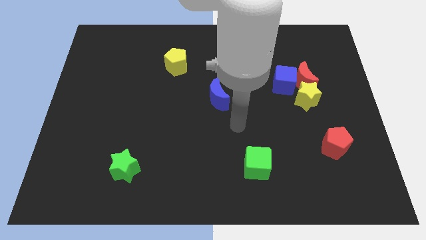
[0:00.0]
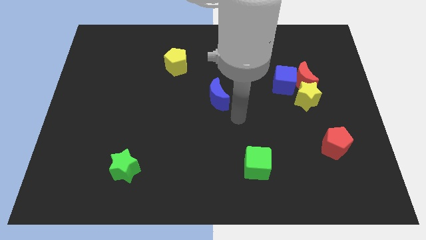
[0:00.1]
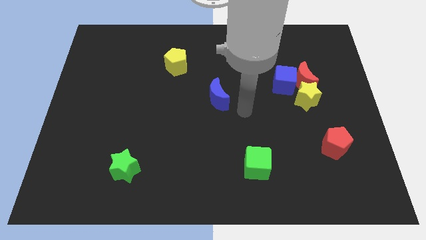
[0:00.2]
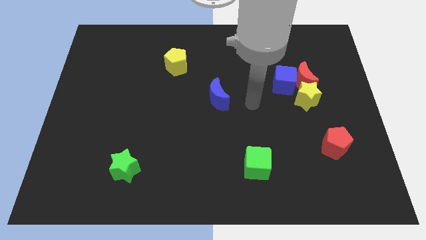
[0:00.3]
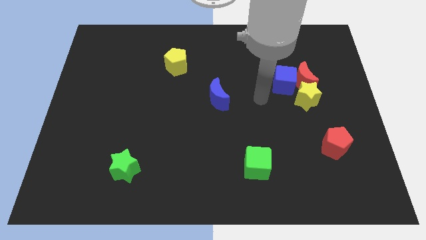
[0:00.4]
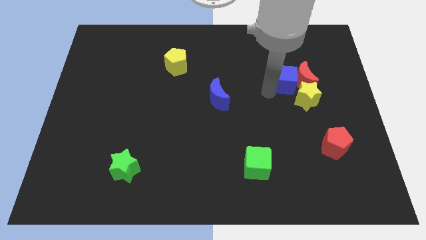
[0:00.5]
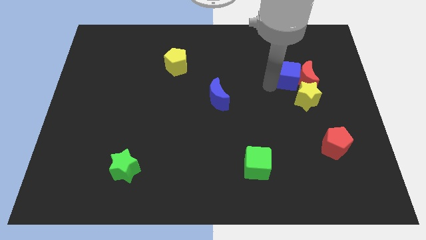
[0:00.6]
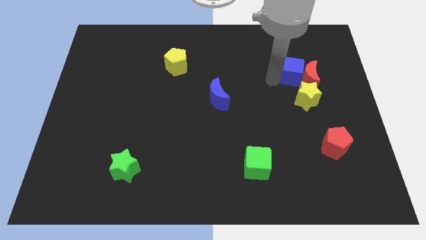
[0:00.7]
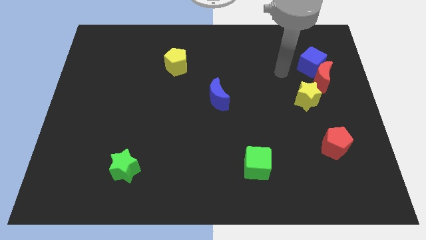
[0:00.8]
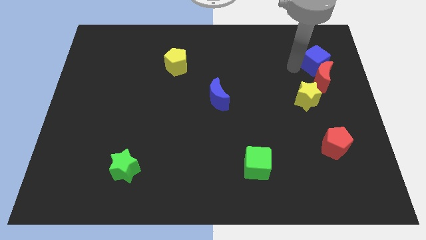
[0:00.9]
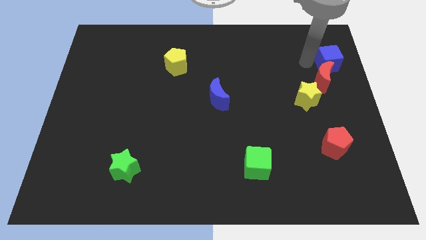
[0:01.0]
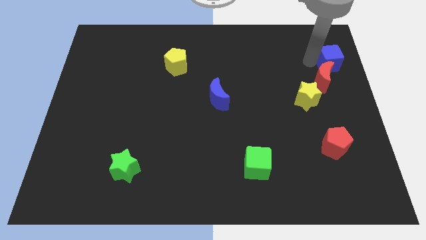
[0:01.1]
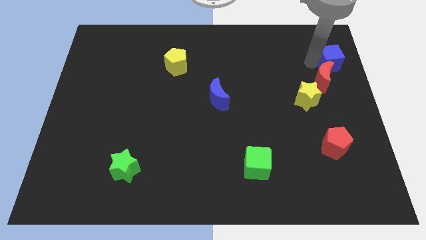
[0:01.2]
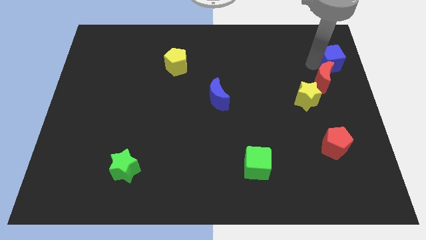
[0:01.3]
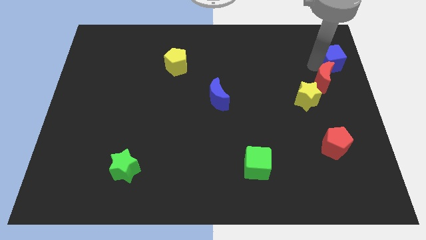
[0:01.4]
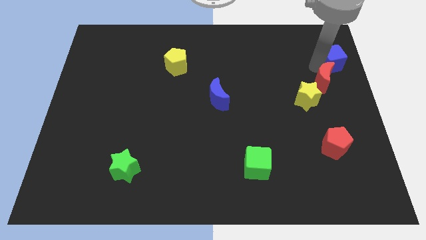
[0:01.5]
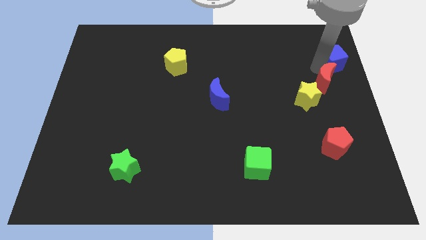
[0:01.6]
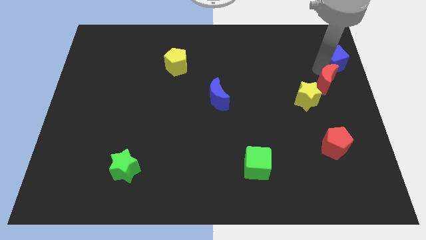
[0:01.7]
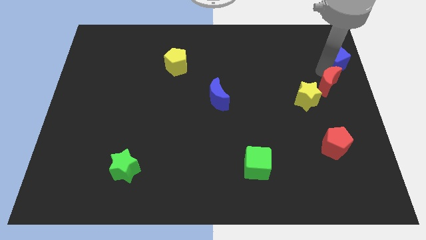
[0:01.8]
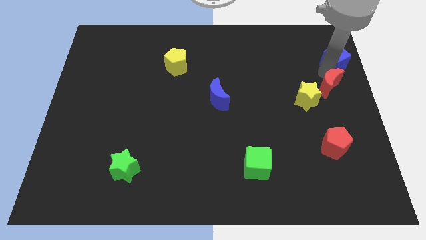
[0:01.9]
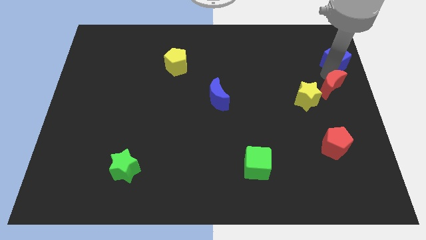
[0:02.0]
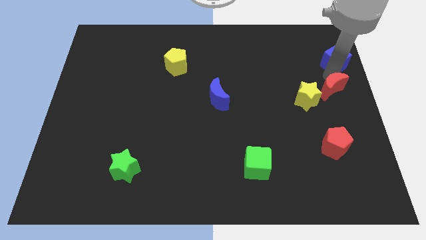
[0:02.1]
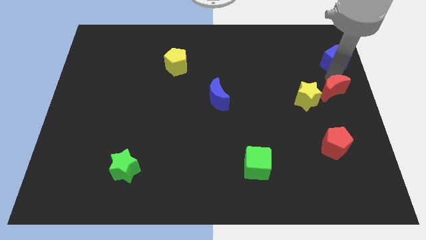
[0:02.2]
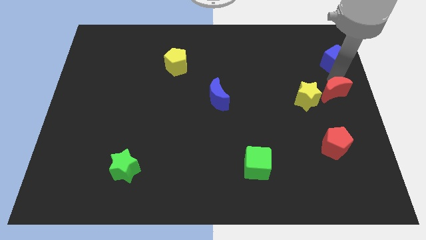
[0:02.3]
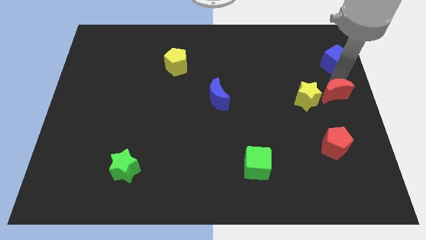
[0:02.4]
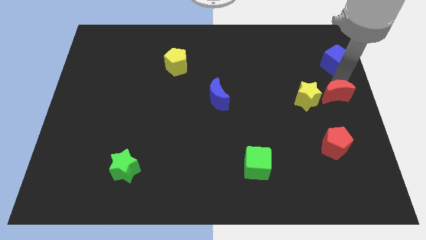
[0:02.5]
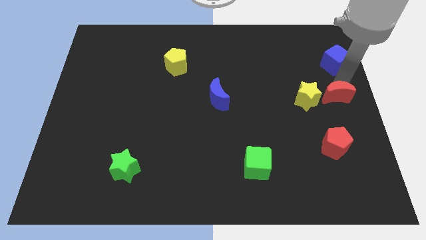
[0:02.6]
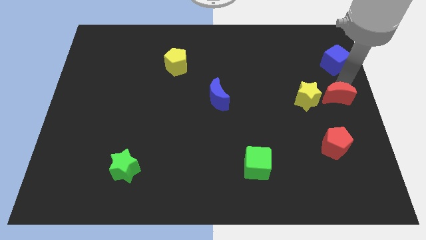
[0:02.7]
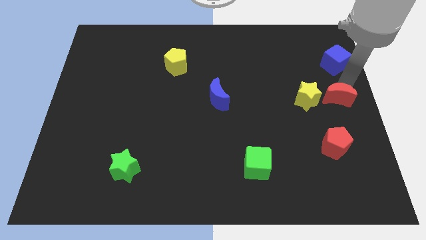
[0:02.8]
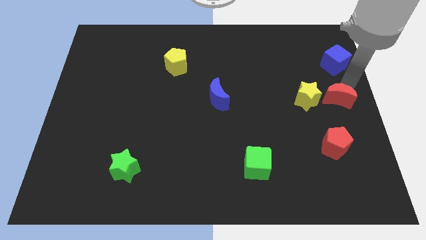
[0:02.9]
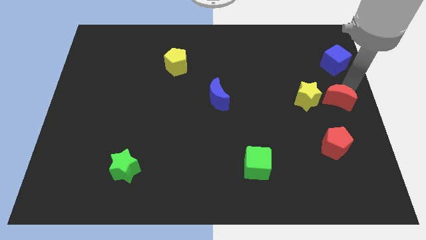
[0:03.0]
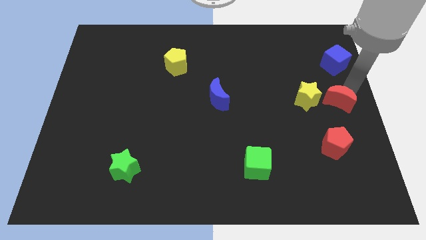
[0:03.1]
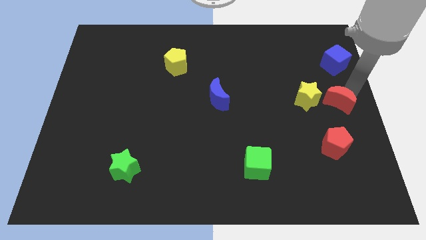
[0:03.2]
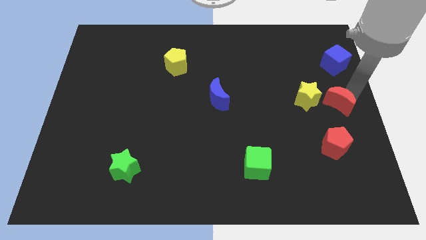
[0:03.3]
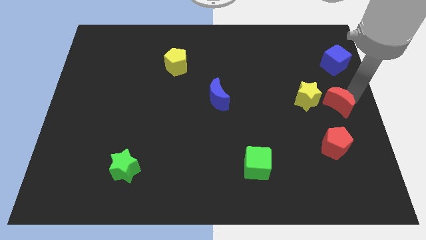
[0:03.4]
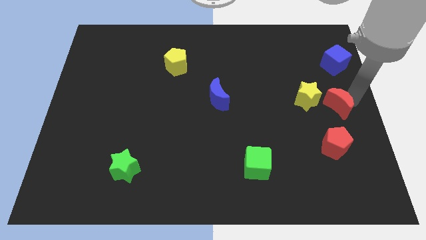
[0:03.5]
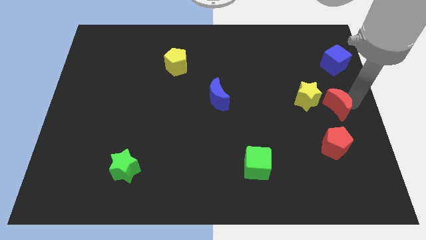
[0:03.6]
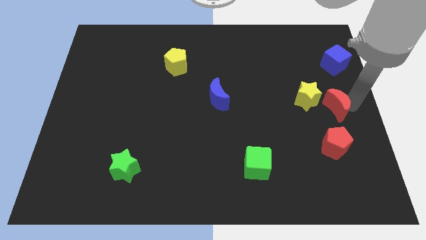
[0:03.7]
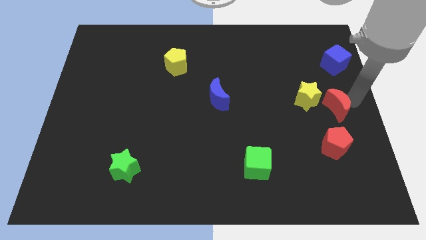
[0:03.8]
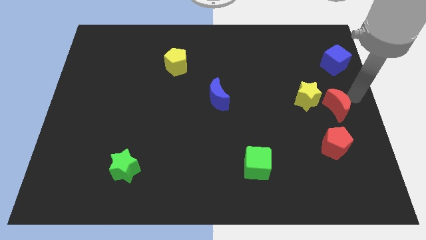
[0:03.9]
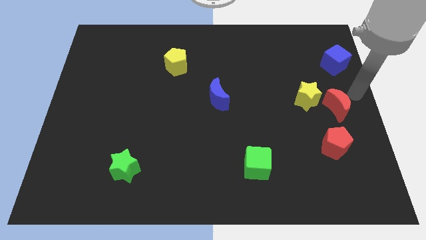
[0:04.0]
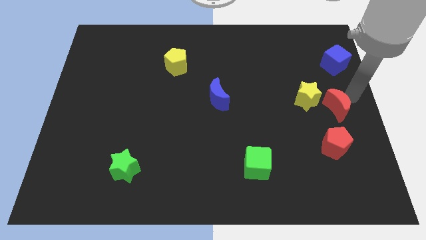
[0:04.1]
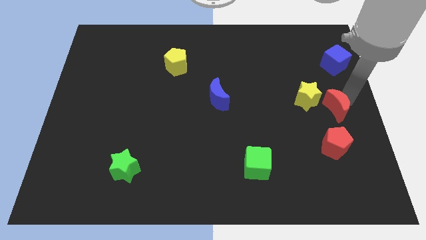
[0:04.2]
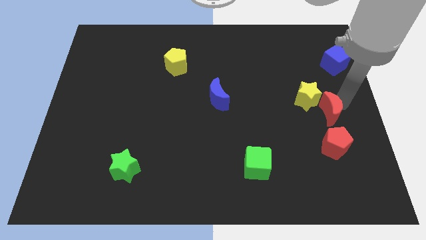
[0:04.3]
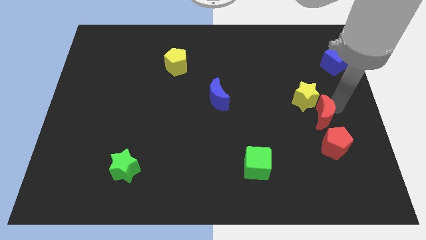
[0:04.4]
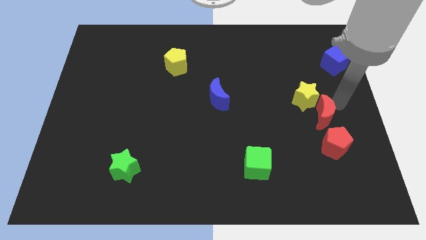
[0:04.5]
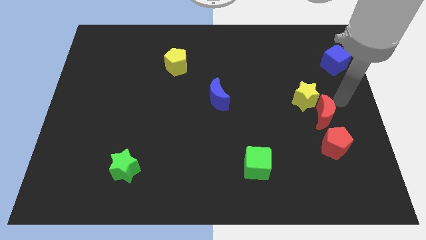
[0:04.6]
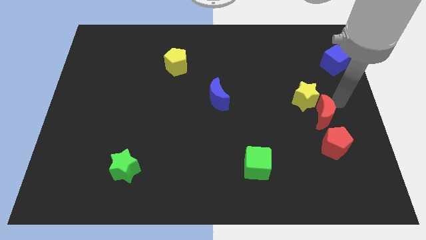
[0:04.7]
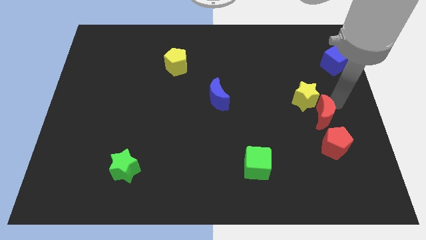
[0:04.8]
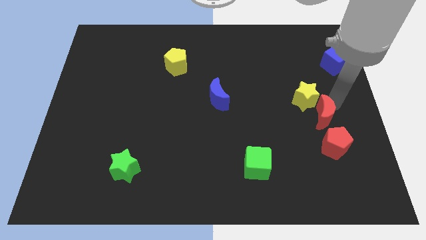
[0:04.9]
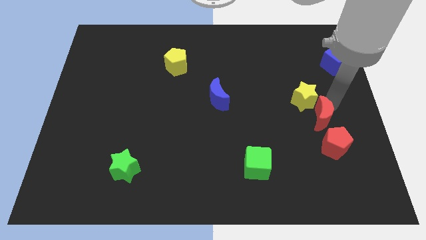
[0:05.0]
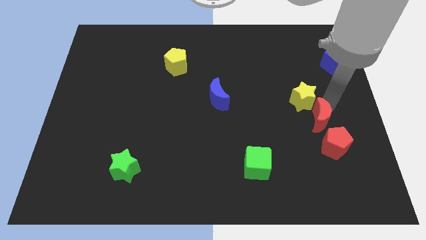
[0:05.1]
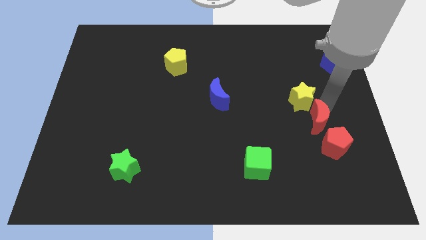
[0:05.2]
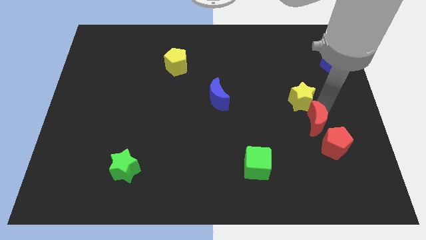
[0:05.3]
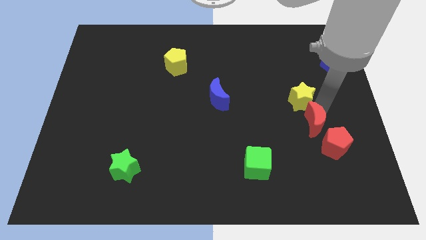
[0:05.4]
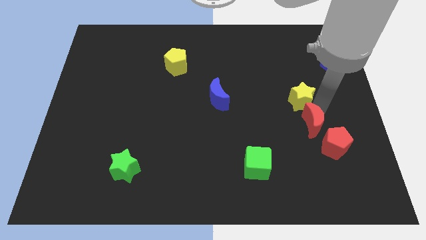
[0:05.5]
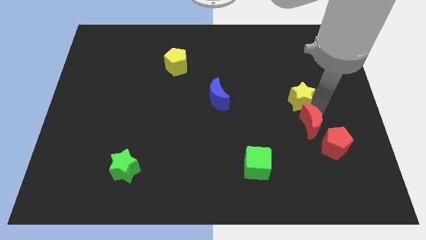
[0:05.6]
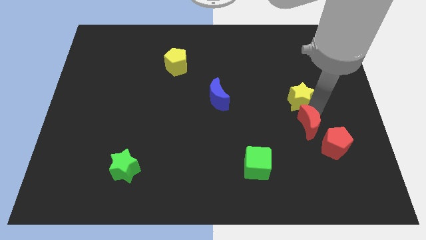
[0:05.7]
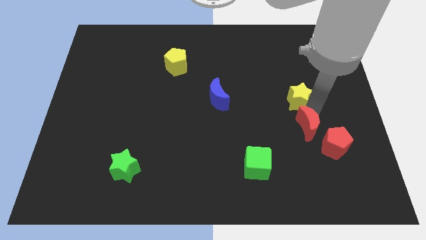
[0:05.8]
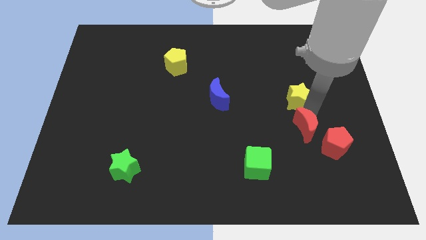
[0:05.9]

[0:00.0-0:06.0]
move the red moon left of the red pentagon
